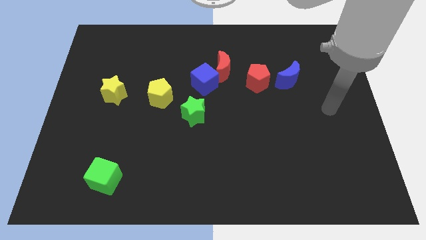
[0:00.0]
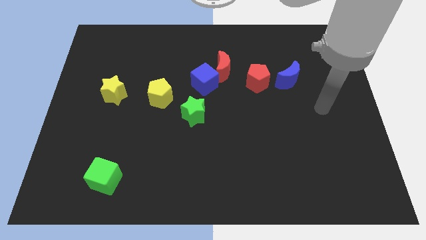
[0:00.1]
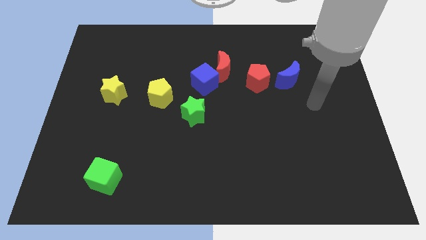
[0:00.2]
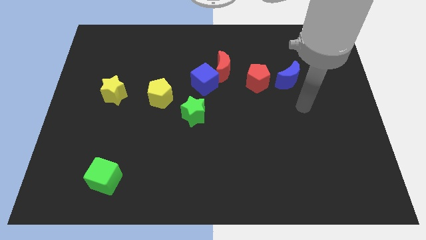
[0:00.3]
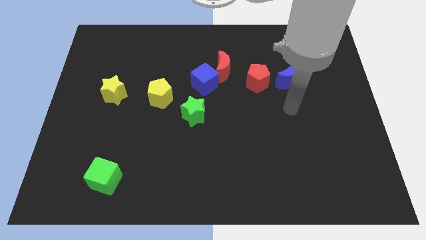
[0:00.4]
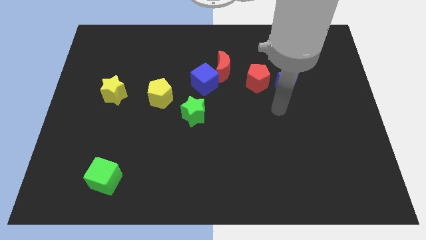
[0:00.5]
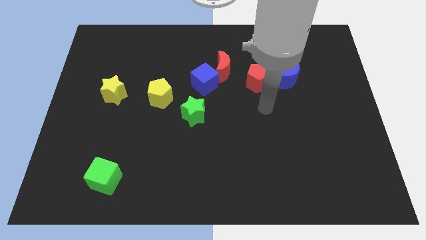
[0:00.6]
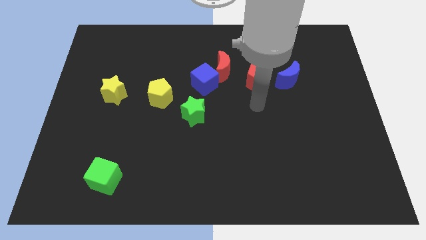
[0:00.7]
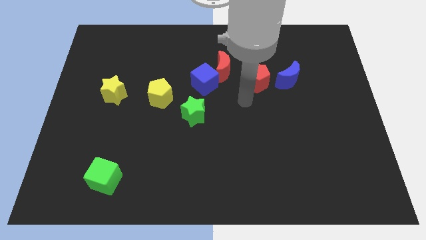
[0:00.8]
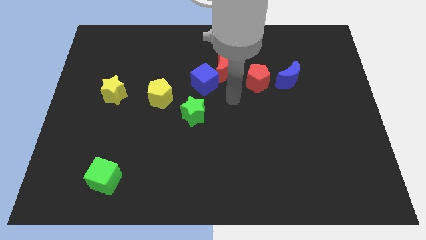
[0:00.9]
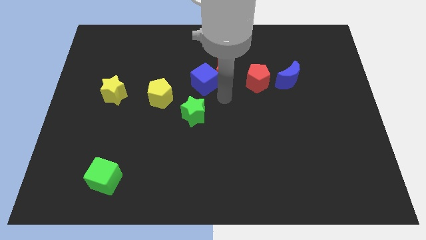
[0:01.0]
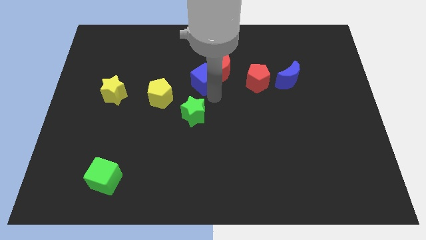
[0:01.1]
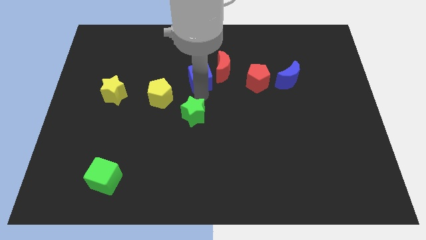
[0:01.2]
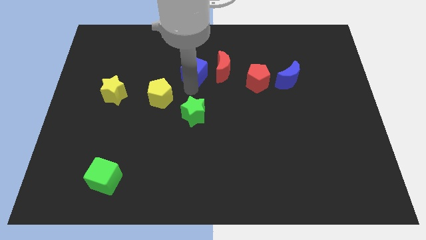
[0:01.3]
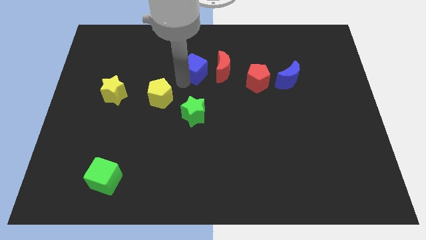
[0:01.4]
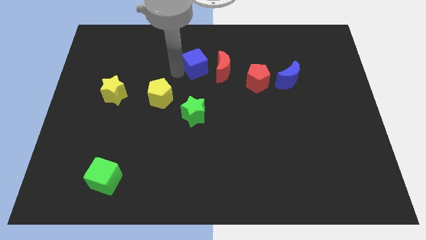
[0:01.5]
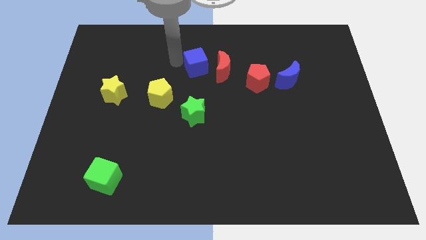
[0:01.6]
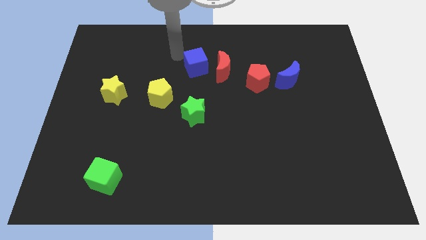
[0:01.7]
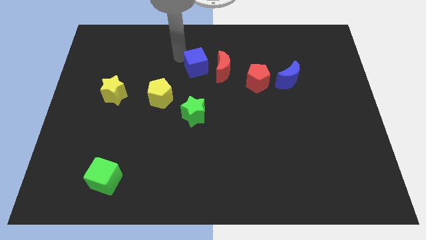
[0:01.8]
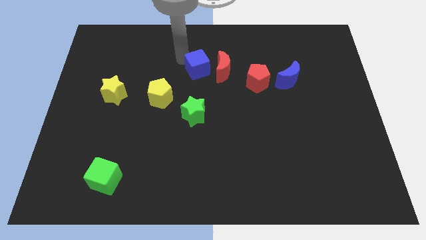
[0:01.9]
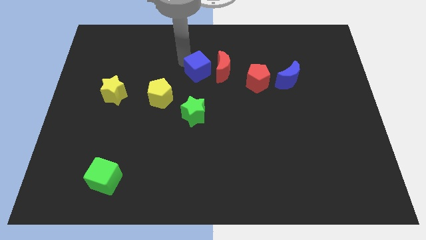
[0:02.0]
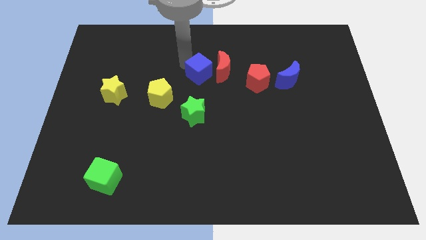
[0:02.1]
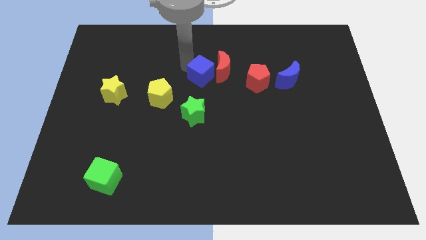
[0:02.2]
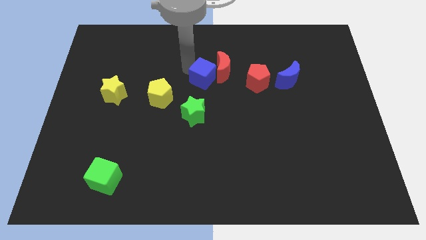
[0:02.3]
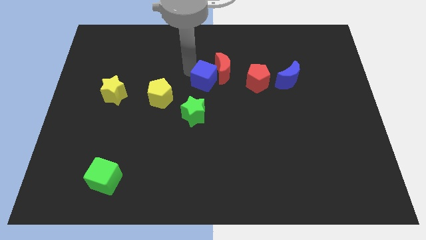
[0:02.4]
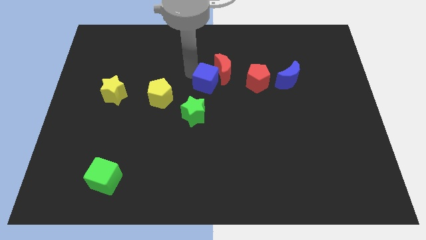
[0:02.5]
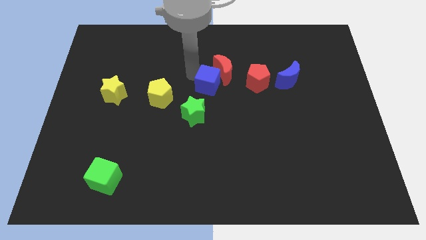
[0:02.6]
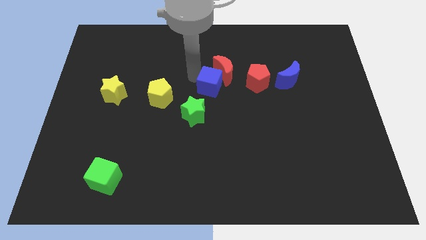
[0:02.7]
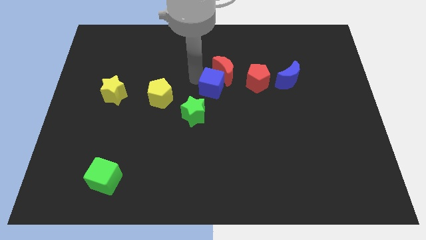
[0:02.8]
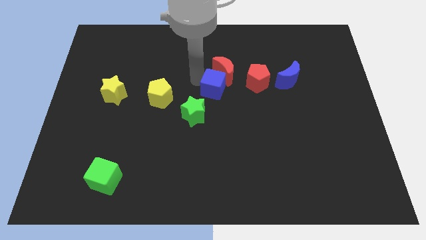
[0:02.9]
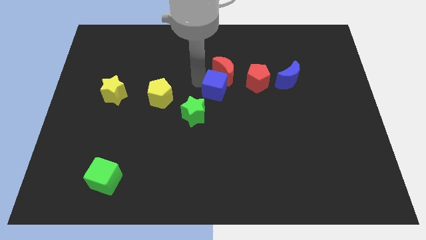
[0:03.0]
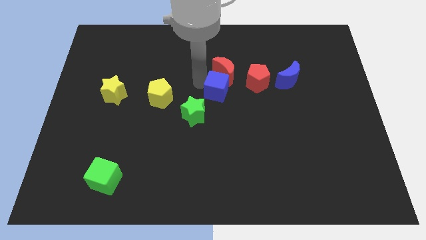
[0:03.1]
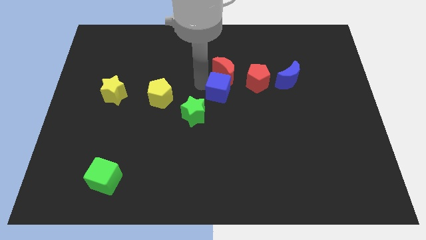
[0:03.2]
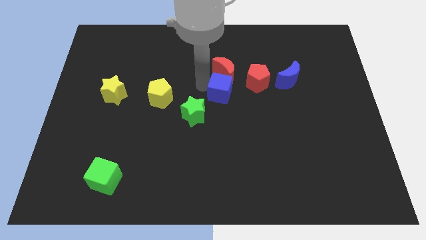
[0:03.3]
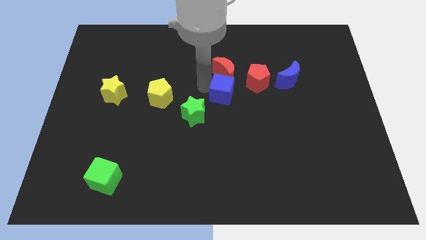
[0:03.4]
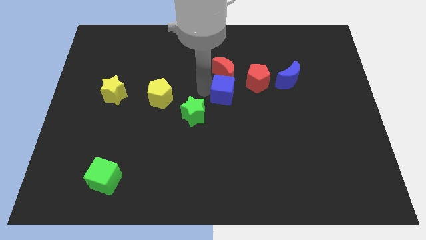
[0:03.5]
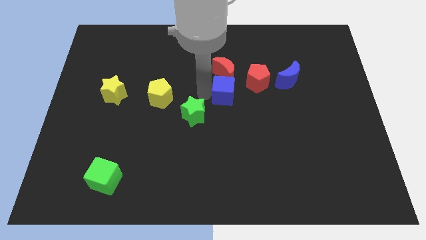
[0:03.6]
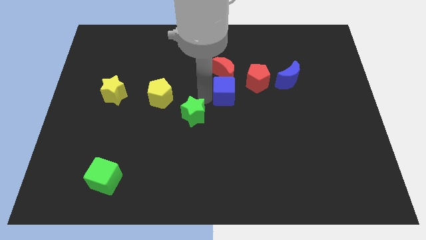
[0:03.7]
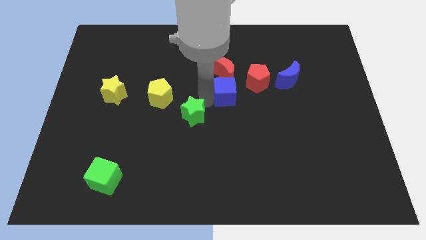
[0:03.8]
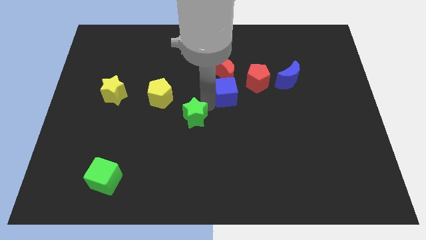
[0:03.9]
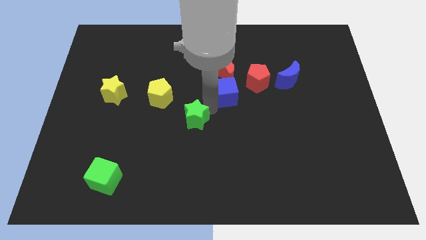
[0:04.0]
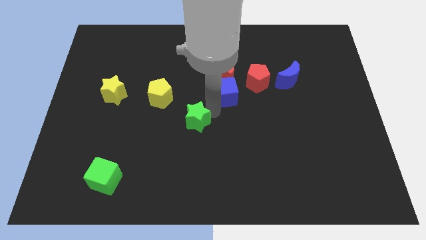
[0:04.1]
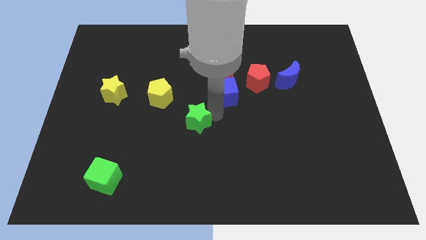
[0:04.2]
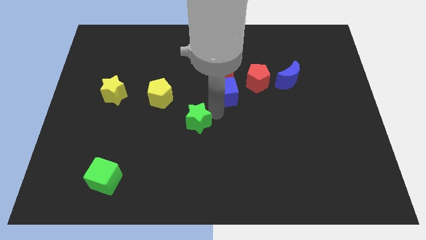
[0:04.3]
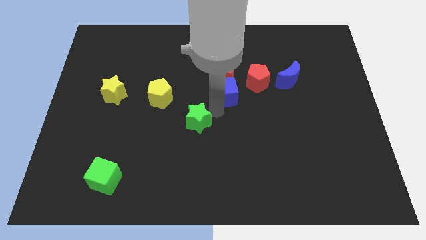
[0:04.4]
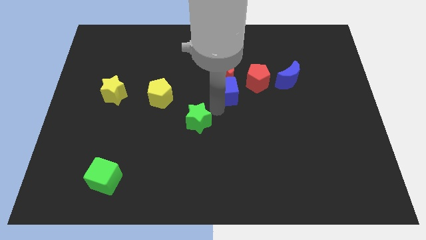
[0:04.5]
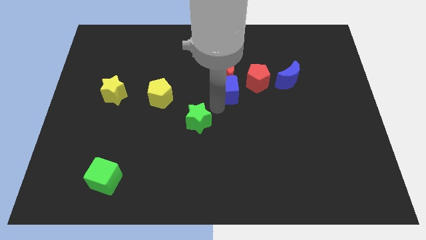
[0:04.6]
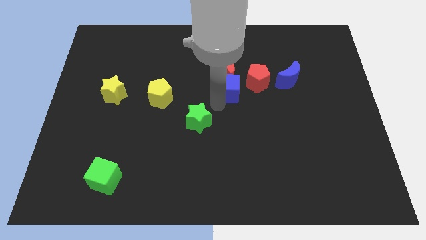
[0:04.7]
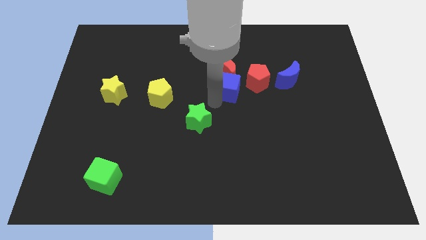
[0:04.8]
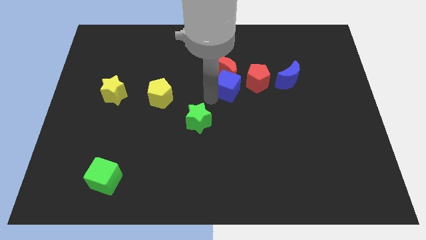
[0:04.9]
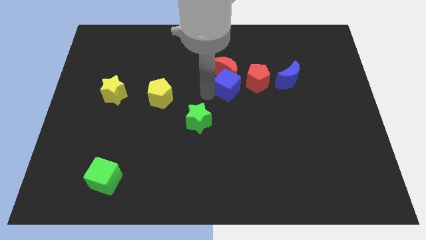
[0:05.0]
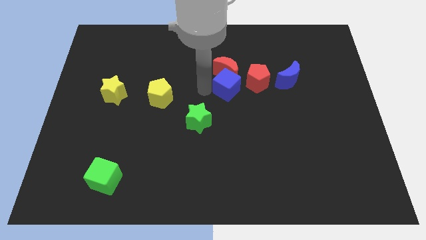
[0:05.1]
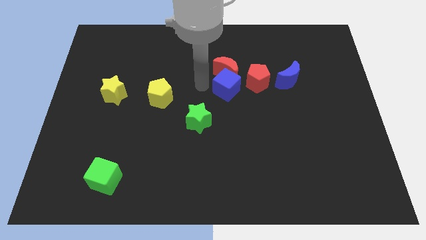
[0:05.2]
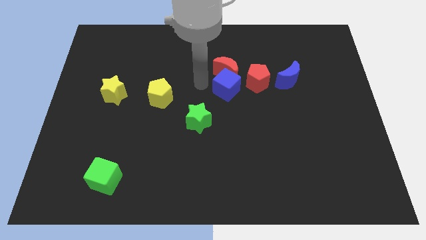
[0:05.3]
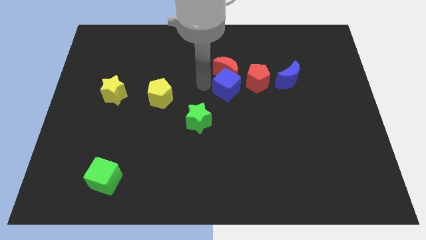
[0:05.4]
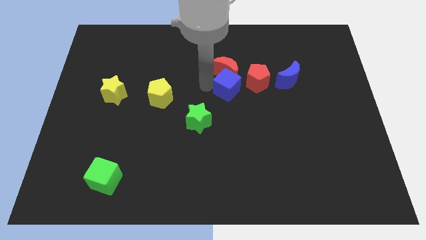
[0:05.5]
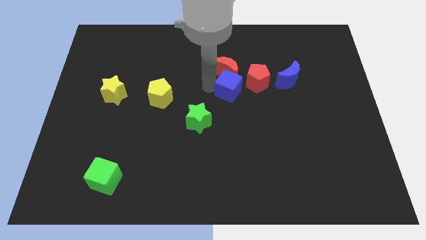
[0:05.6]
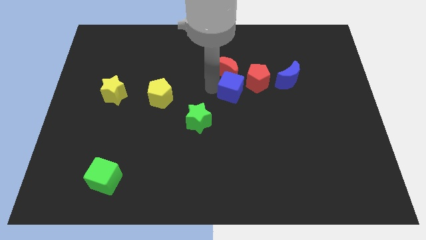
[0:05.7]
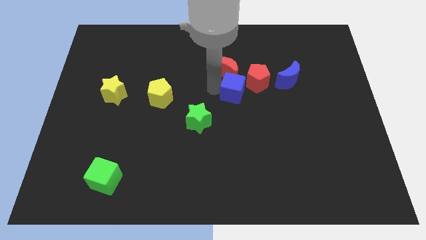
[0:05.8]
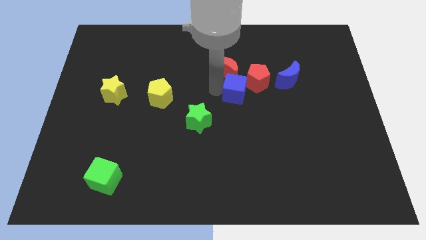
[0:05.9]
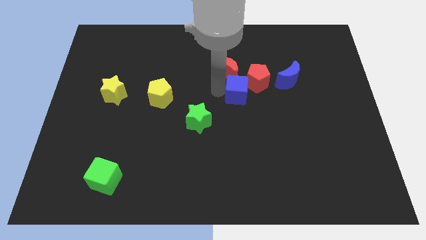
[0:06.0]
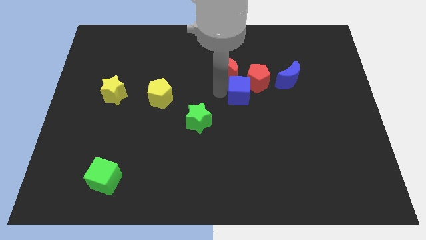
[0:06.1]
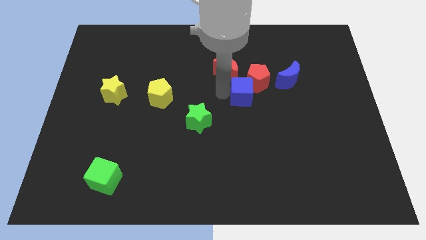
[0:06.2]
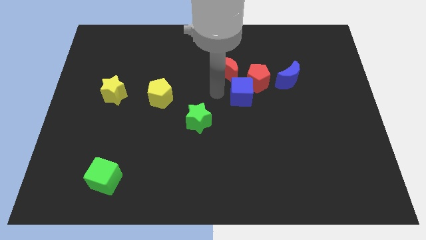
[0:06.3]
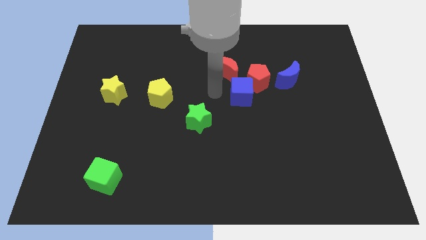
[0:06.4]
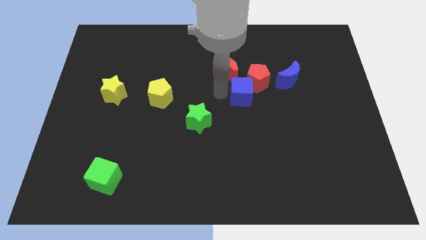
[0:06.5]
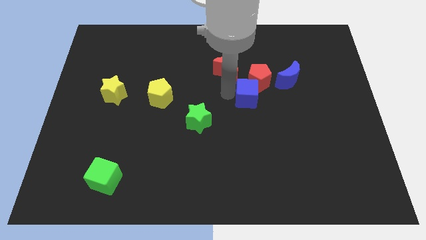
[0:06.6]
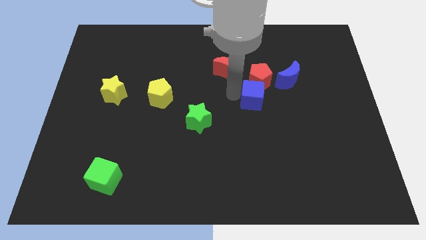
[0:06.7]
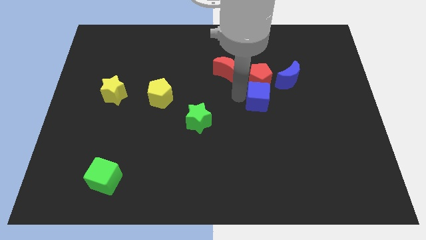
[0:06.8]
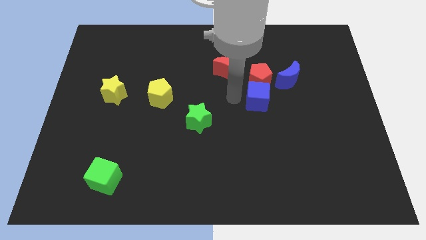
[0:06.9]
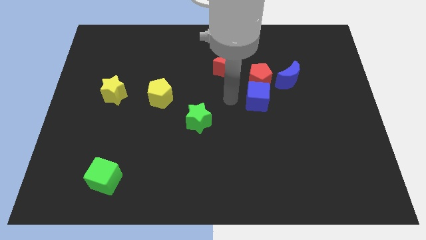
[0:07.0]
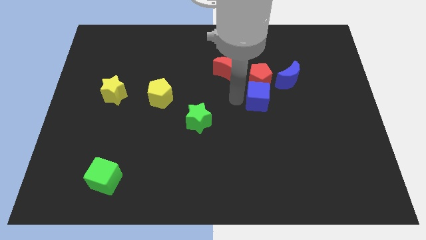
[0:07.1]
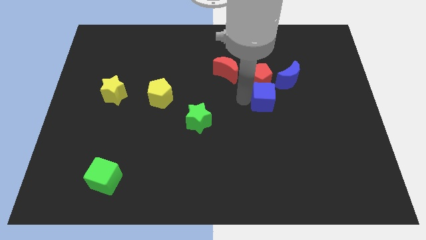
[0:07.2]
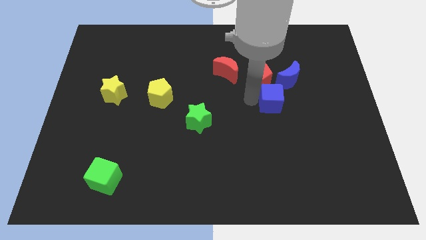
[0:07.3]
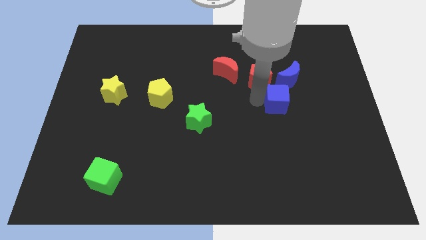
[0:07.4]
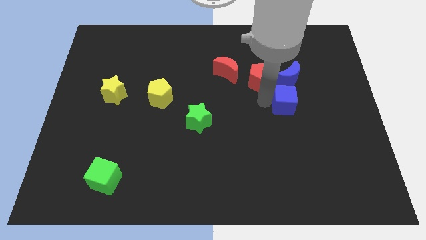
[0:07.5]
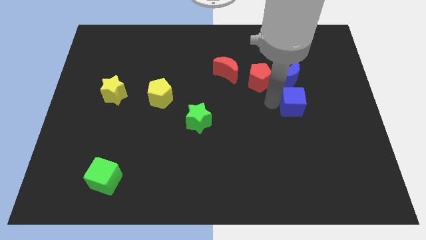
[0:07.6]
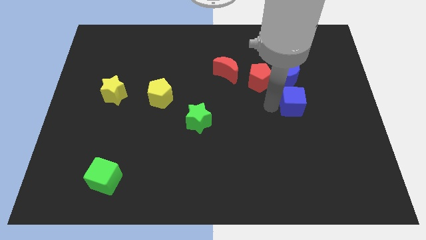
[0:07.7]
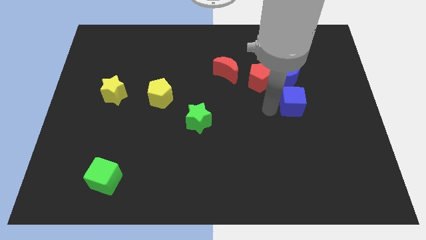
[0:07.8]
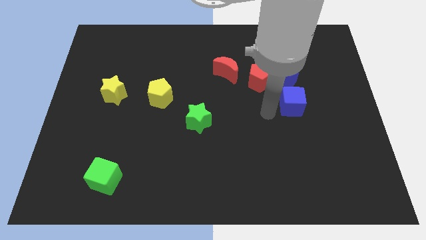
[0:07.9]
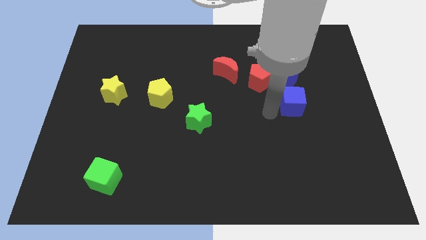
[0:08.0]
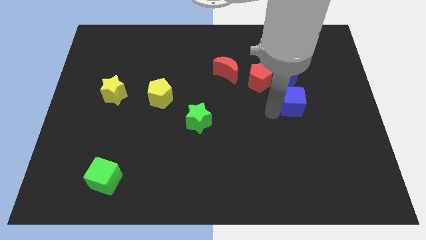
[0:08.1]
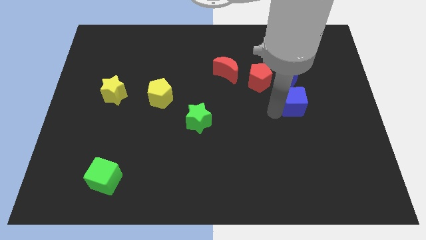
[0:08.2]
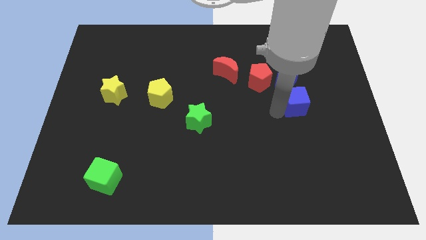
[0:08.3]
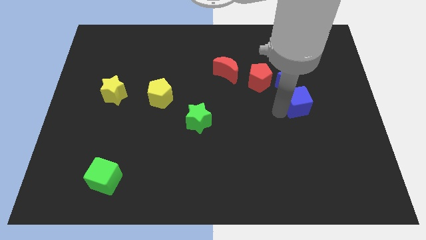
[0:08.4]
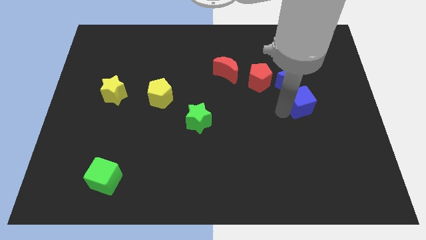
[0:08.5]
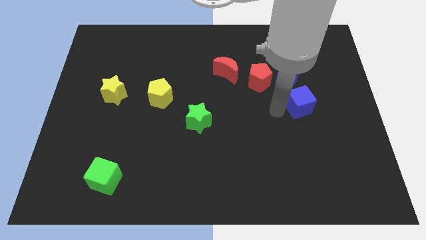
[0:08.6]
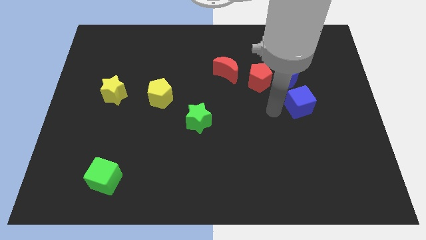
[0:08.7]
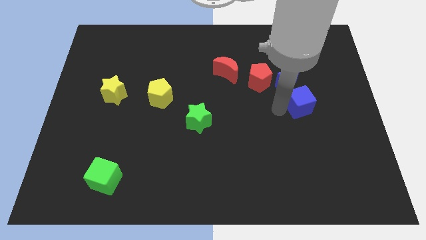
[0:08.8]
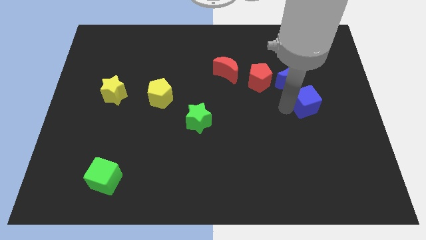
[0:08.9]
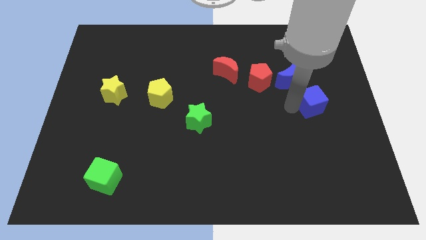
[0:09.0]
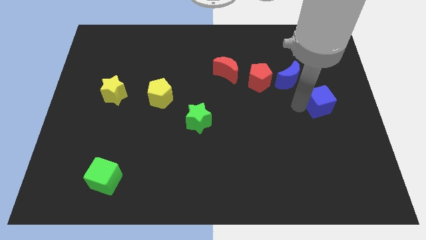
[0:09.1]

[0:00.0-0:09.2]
move the blue cube to the right side of the board
